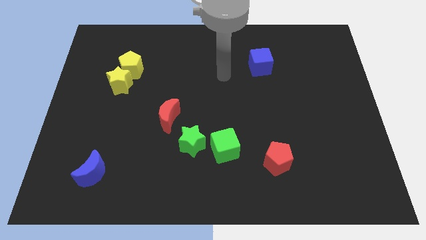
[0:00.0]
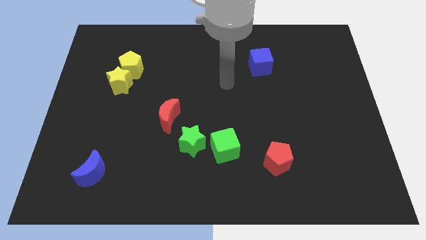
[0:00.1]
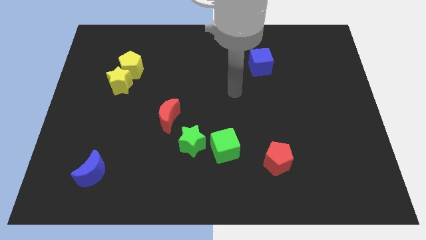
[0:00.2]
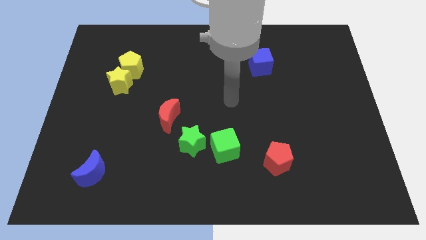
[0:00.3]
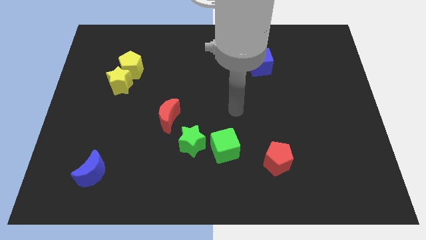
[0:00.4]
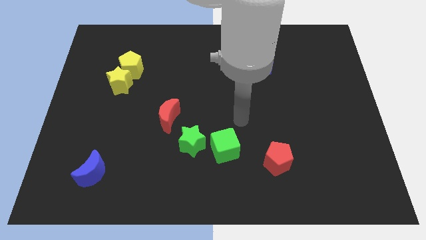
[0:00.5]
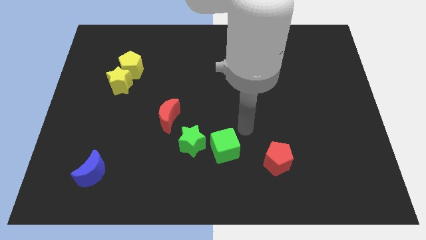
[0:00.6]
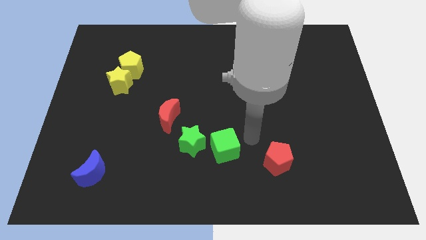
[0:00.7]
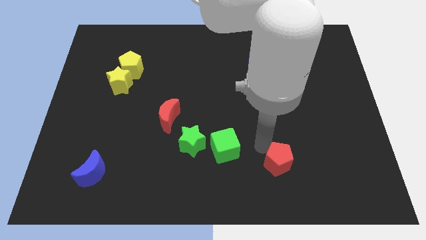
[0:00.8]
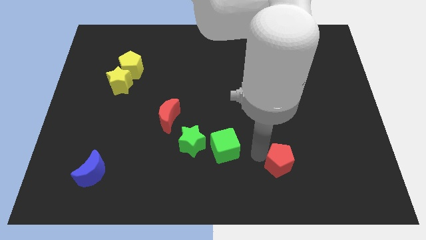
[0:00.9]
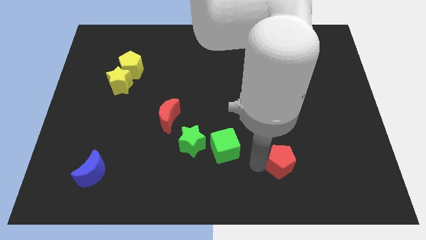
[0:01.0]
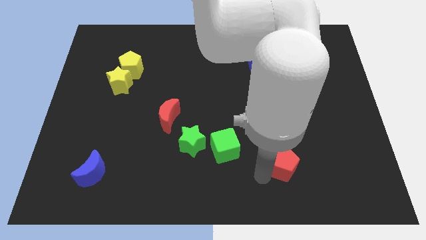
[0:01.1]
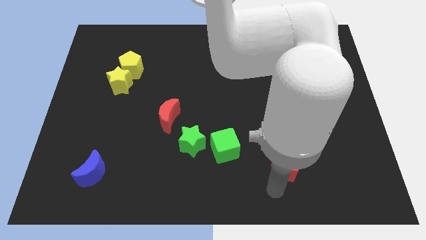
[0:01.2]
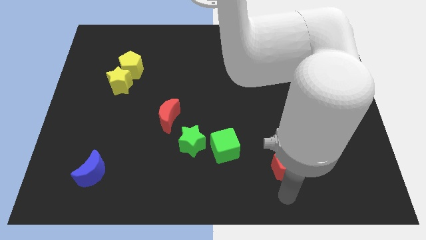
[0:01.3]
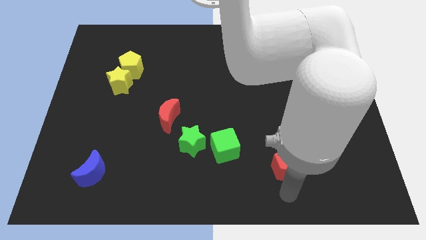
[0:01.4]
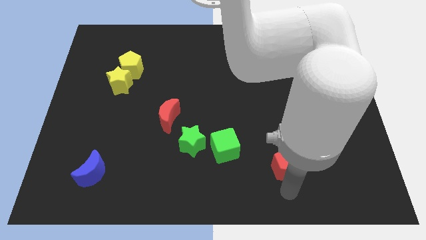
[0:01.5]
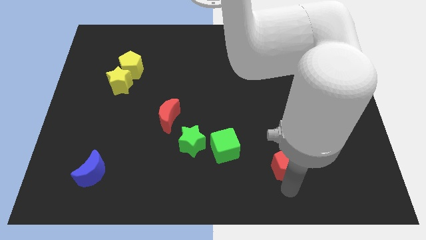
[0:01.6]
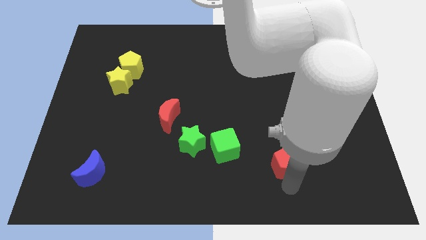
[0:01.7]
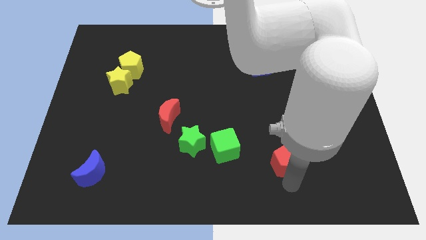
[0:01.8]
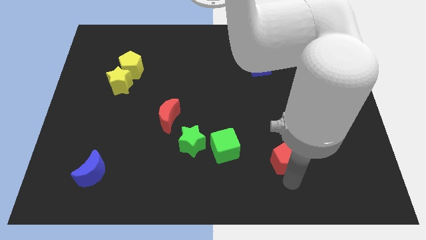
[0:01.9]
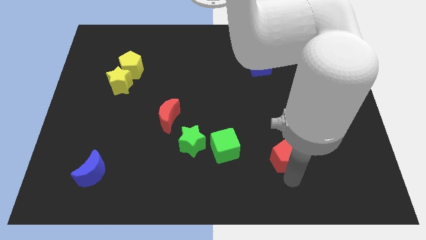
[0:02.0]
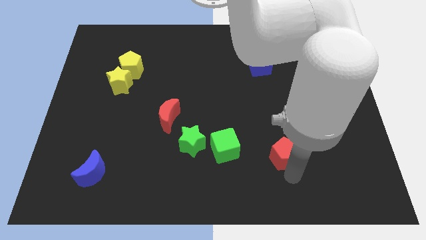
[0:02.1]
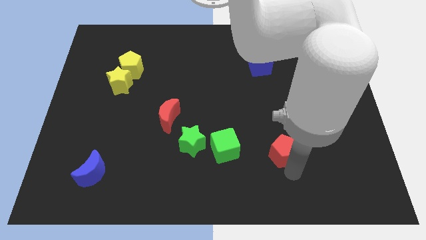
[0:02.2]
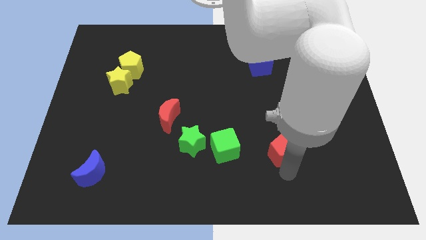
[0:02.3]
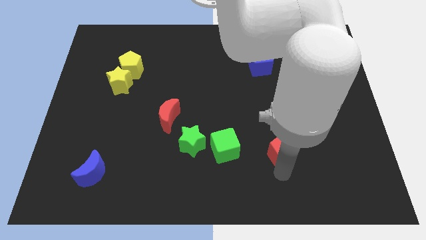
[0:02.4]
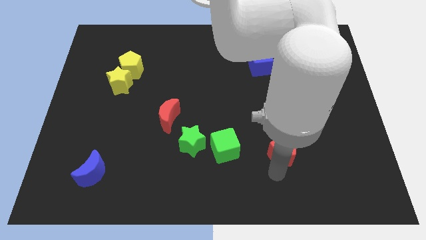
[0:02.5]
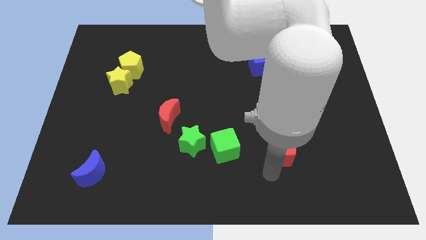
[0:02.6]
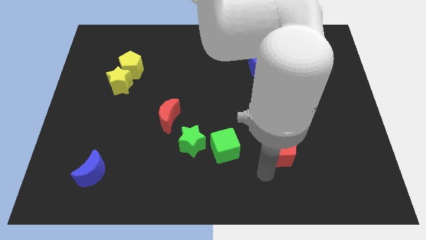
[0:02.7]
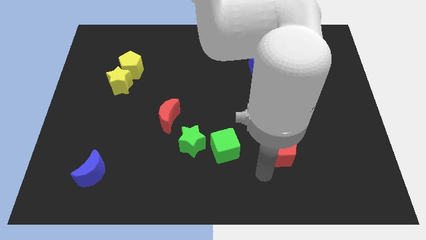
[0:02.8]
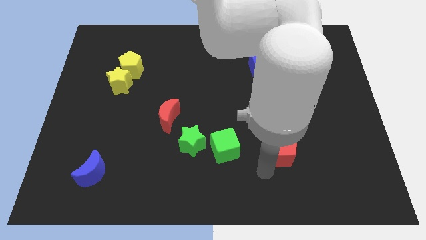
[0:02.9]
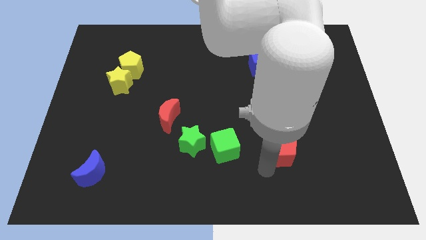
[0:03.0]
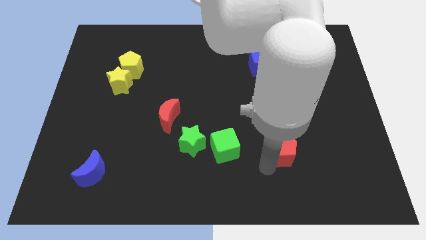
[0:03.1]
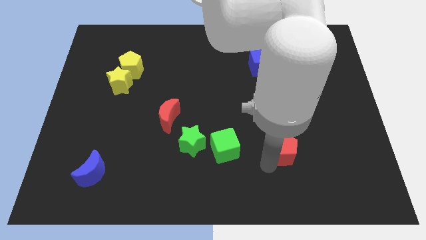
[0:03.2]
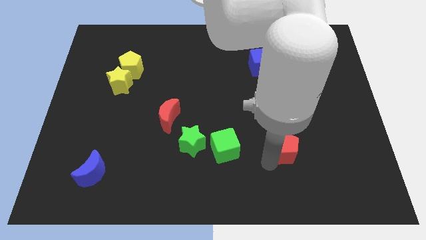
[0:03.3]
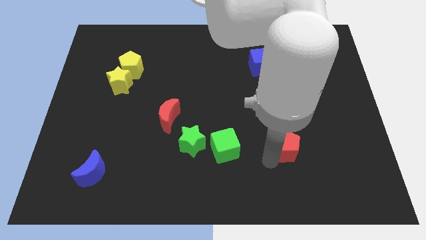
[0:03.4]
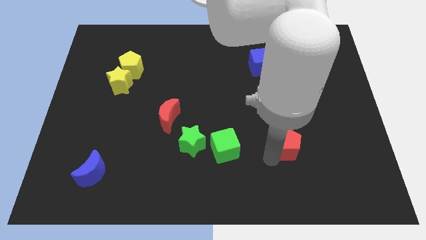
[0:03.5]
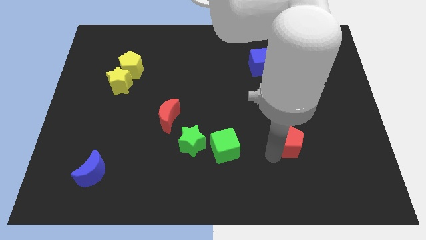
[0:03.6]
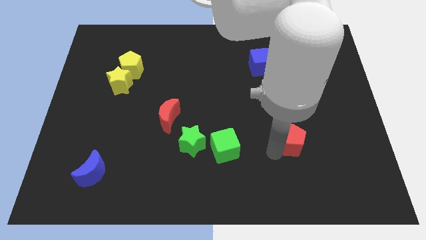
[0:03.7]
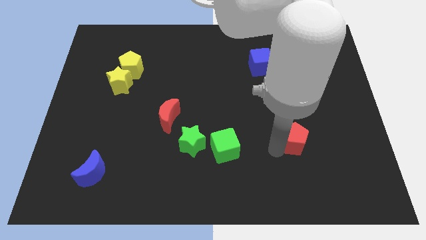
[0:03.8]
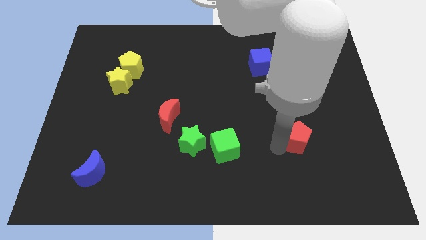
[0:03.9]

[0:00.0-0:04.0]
push the red pentagon upwards and right diagonally somewhat

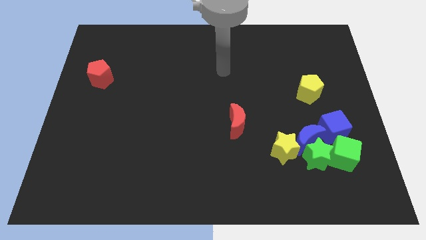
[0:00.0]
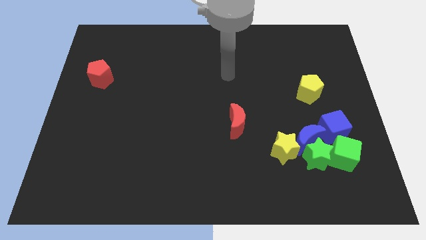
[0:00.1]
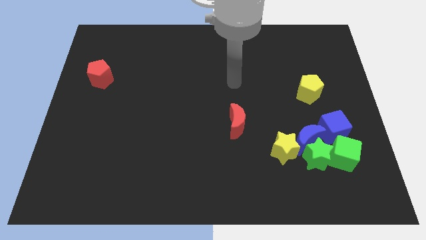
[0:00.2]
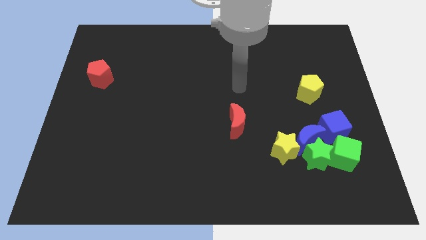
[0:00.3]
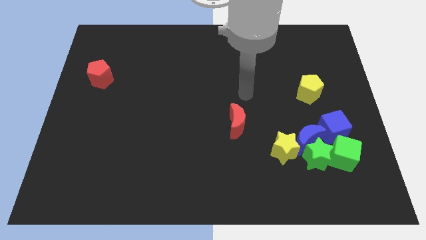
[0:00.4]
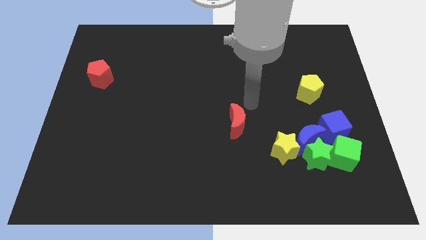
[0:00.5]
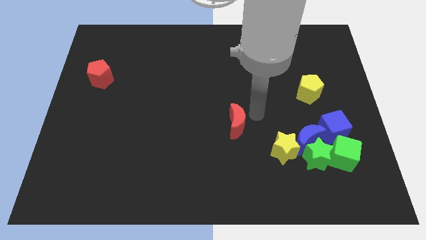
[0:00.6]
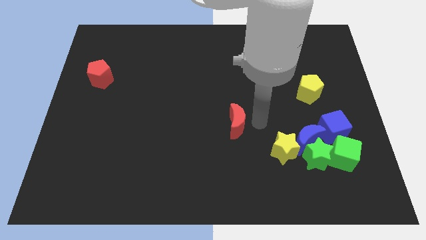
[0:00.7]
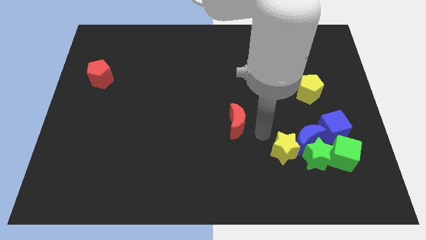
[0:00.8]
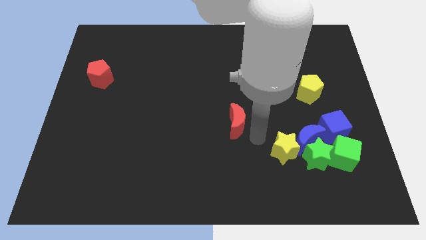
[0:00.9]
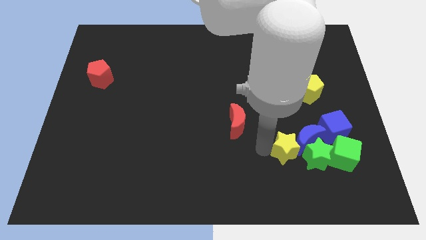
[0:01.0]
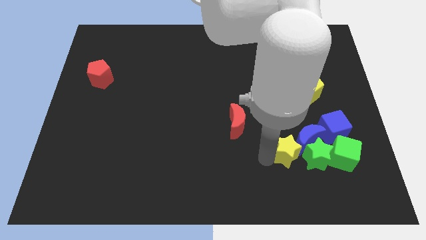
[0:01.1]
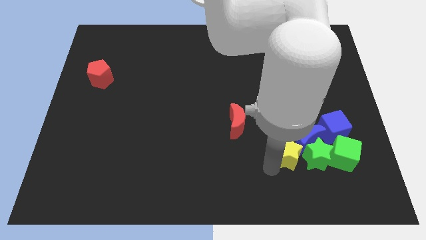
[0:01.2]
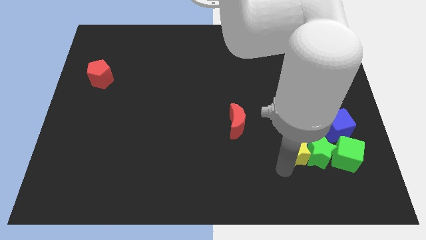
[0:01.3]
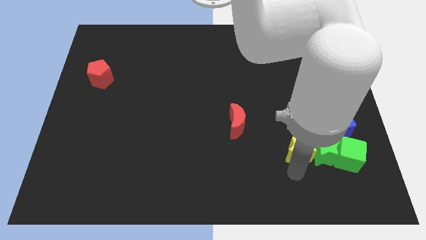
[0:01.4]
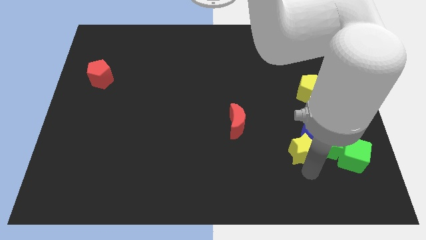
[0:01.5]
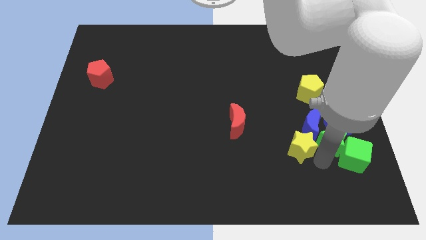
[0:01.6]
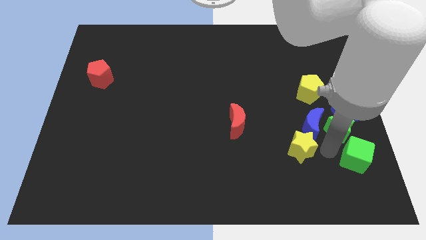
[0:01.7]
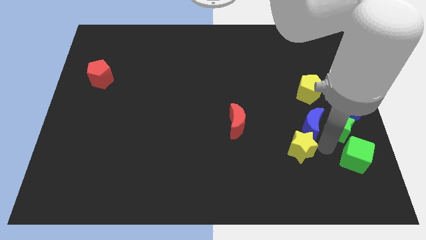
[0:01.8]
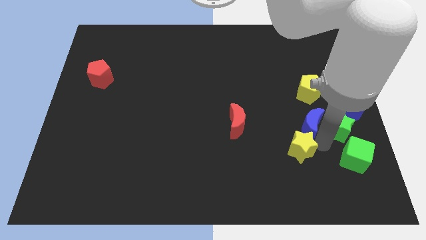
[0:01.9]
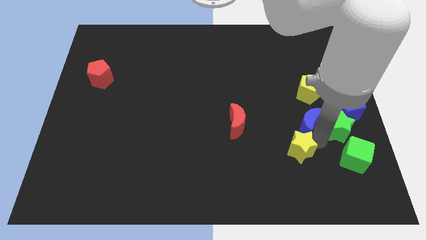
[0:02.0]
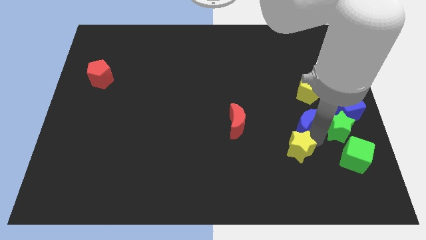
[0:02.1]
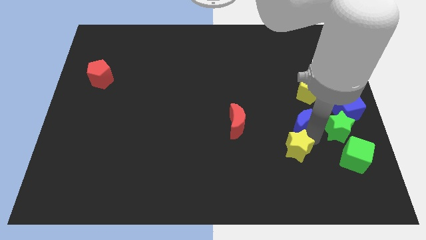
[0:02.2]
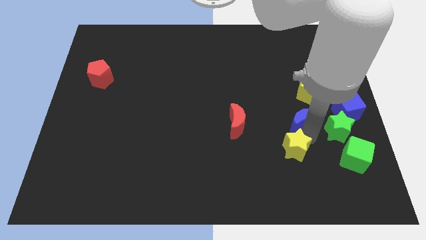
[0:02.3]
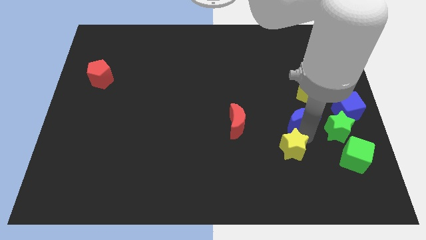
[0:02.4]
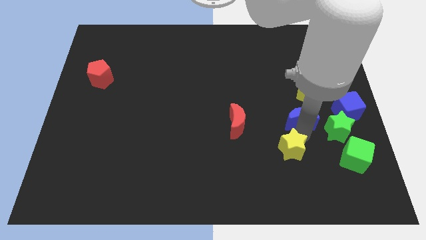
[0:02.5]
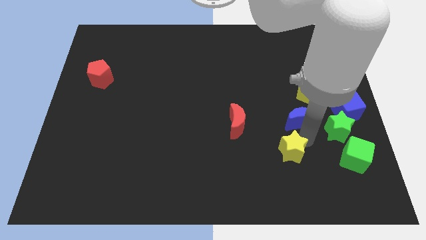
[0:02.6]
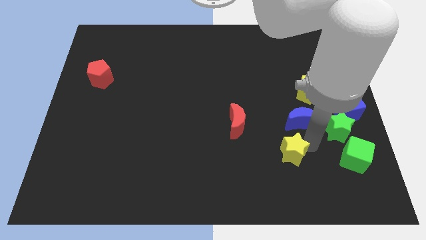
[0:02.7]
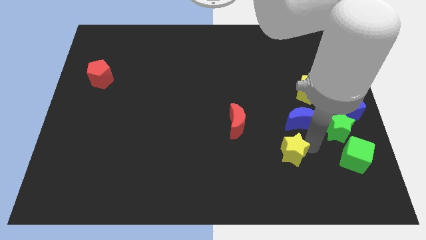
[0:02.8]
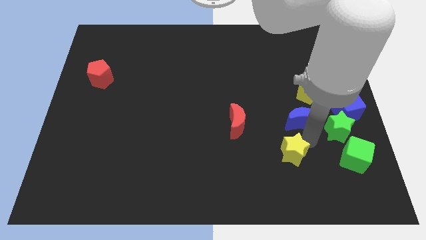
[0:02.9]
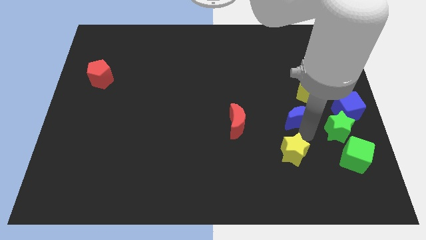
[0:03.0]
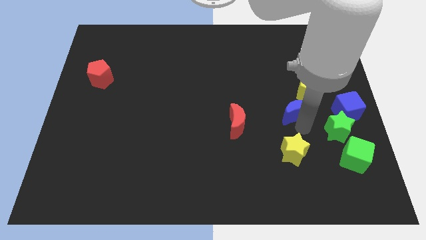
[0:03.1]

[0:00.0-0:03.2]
slide the blue moon a little upwards

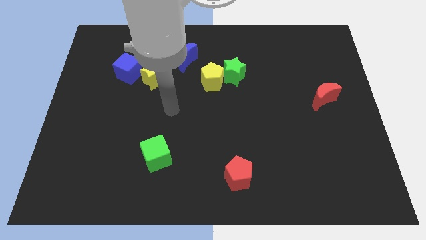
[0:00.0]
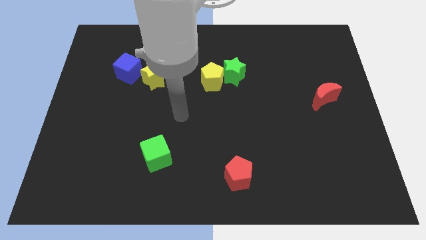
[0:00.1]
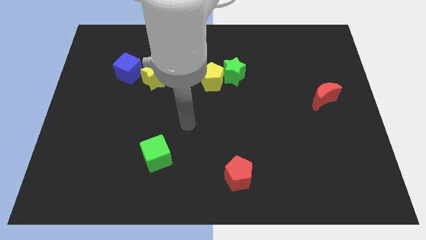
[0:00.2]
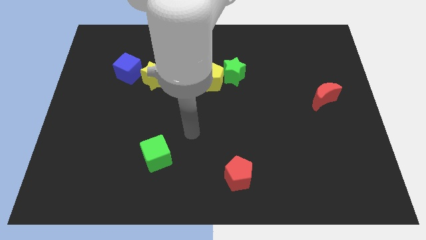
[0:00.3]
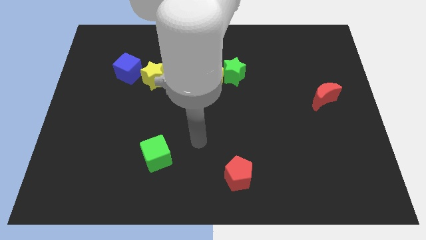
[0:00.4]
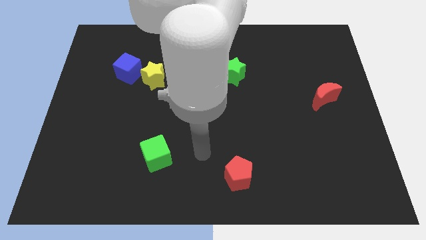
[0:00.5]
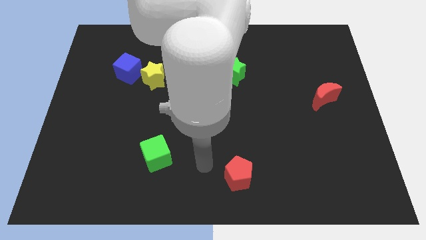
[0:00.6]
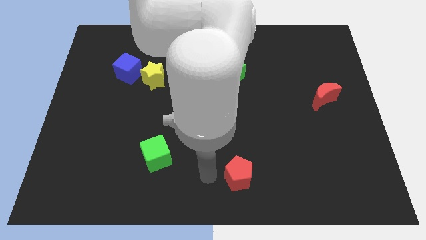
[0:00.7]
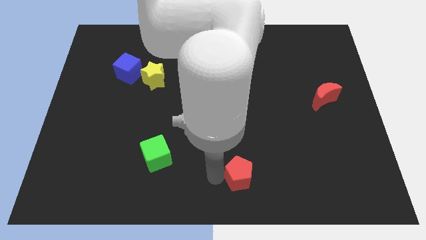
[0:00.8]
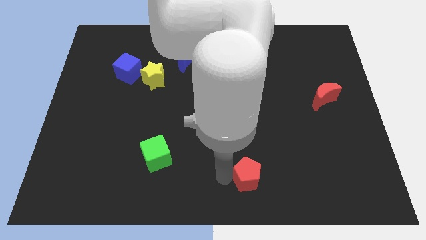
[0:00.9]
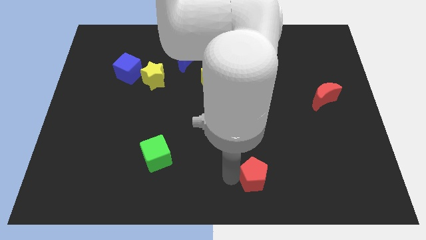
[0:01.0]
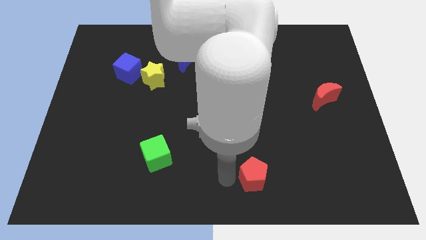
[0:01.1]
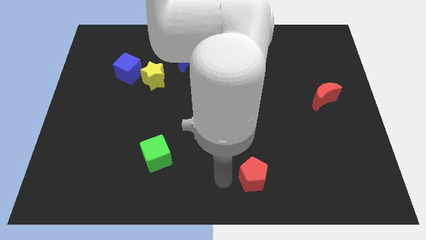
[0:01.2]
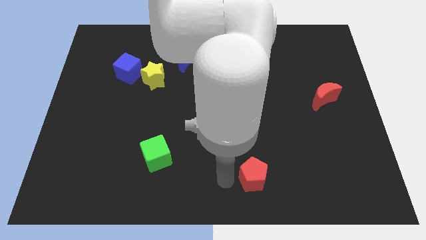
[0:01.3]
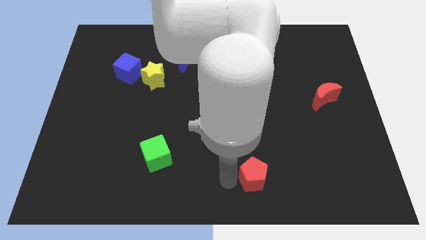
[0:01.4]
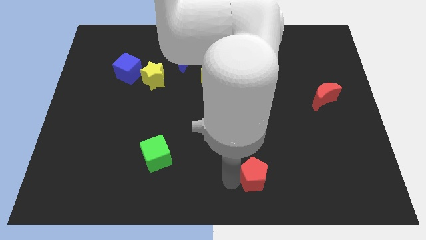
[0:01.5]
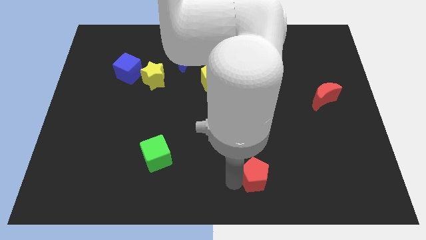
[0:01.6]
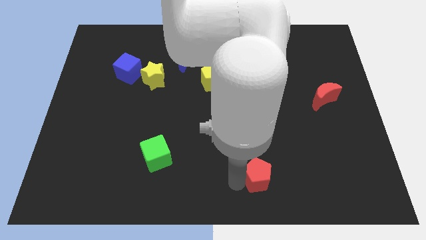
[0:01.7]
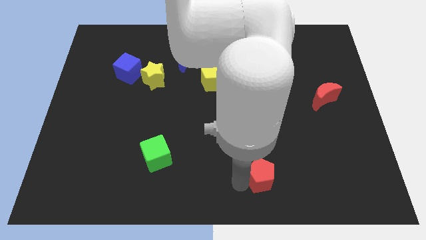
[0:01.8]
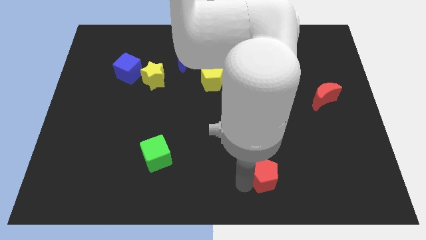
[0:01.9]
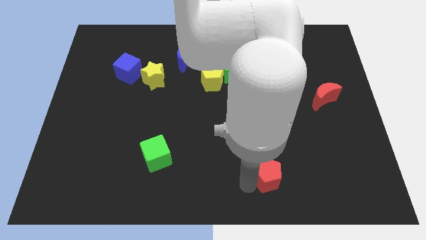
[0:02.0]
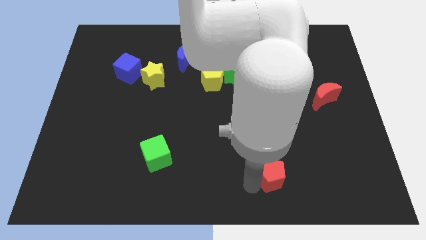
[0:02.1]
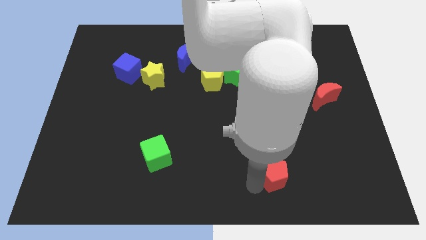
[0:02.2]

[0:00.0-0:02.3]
move the red pentagon a little bit to the right
